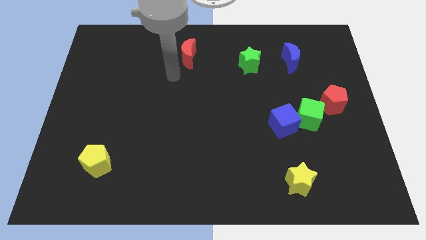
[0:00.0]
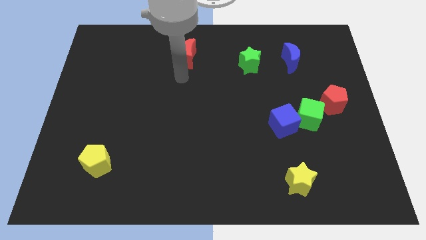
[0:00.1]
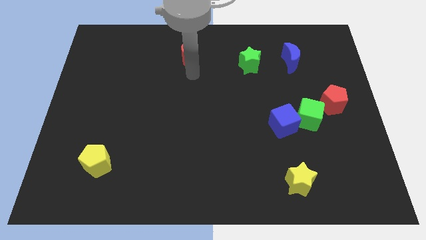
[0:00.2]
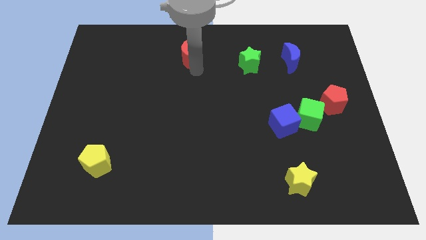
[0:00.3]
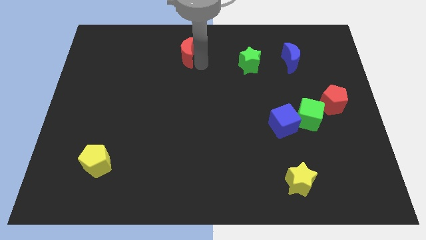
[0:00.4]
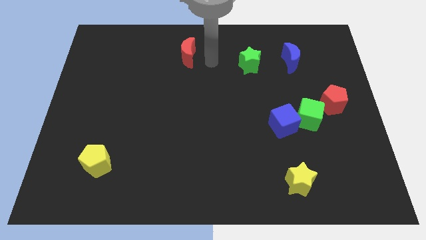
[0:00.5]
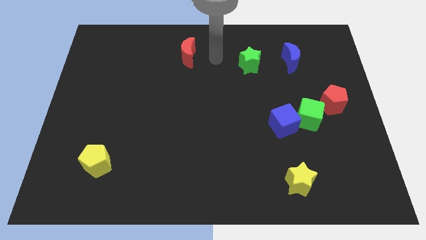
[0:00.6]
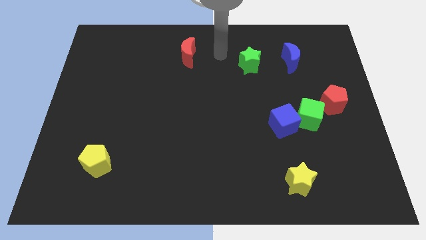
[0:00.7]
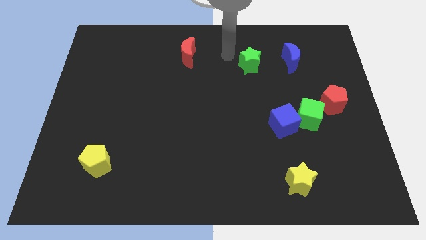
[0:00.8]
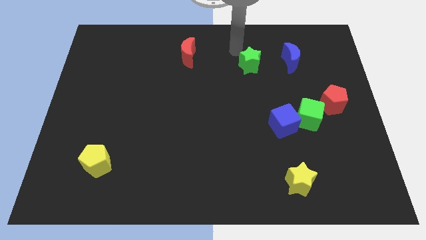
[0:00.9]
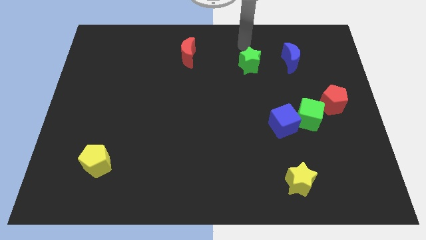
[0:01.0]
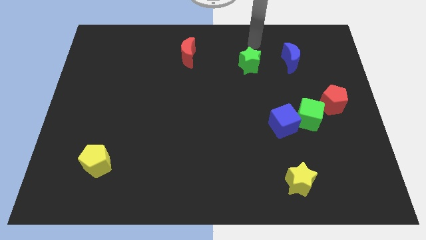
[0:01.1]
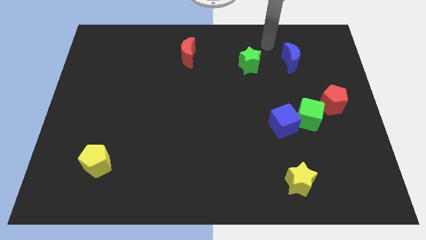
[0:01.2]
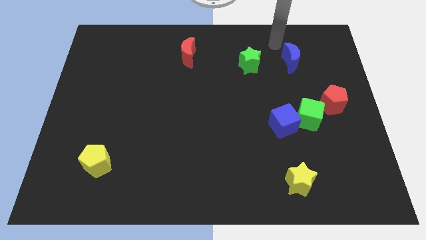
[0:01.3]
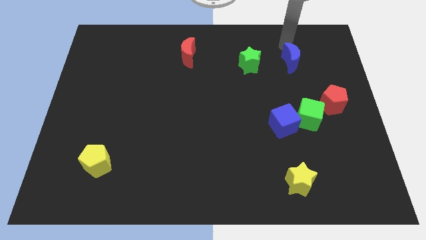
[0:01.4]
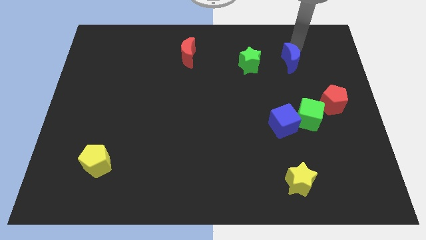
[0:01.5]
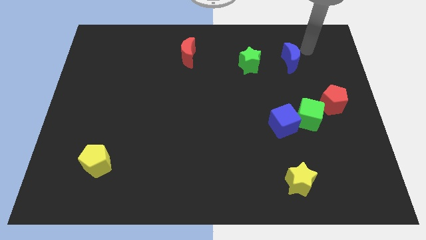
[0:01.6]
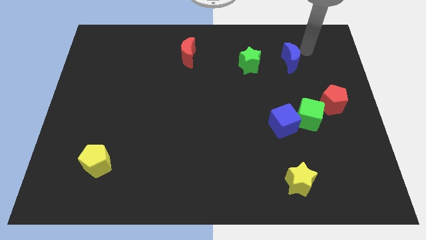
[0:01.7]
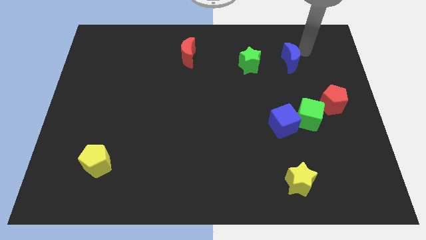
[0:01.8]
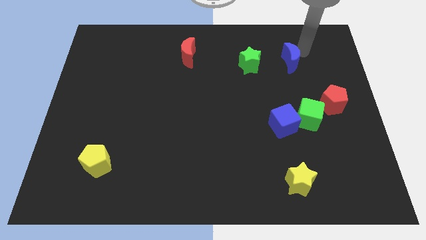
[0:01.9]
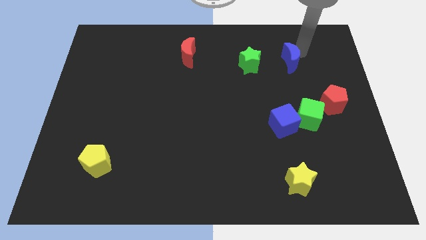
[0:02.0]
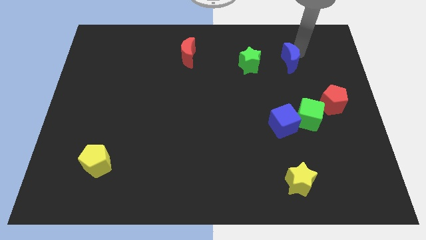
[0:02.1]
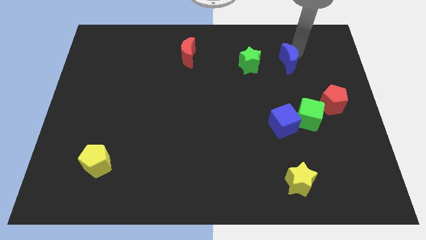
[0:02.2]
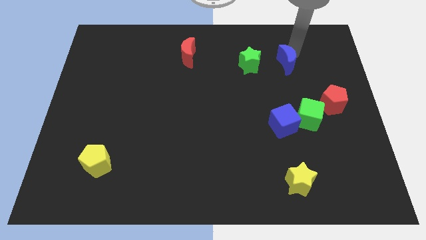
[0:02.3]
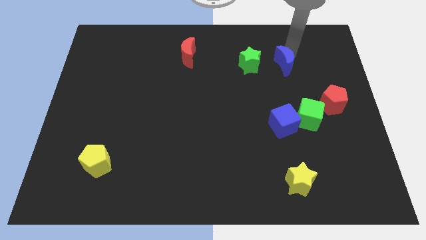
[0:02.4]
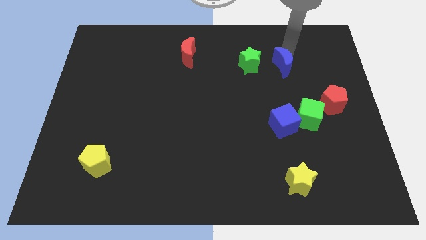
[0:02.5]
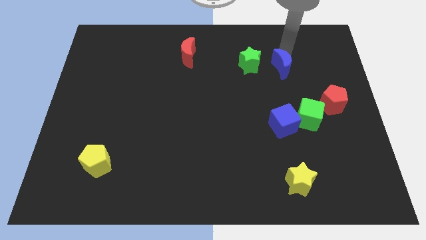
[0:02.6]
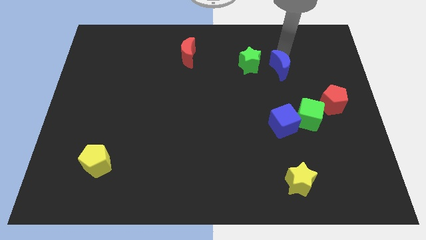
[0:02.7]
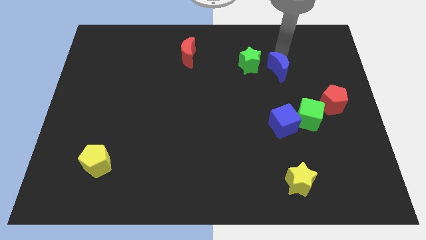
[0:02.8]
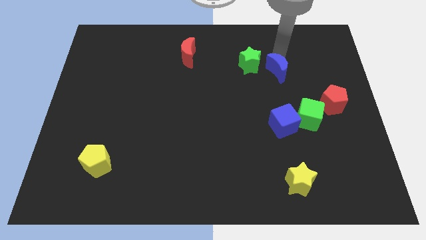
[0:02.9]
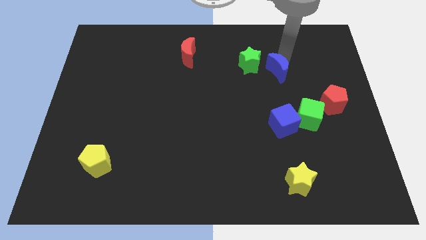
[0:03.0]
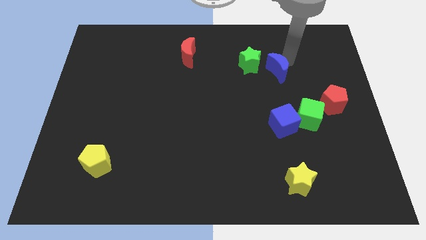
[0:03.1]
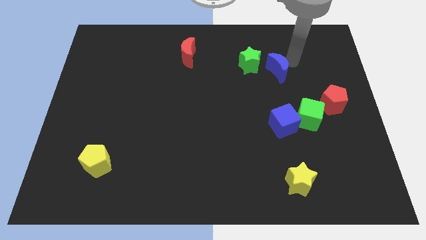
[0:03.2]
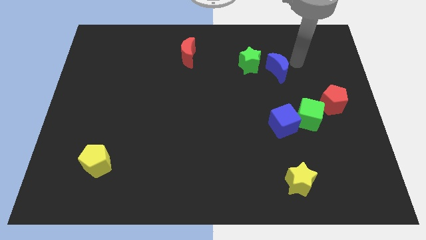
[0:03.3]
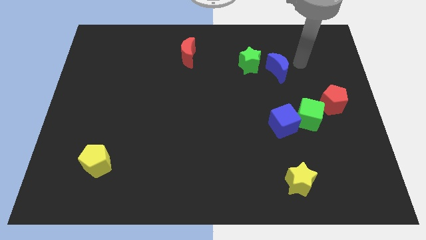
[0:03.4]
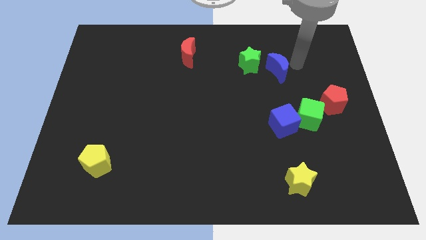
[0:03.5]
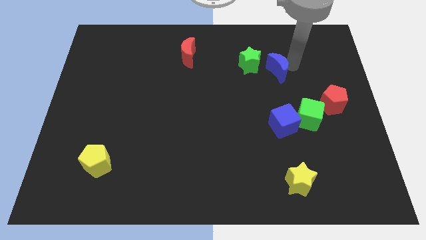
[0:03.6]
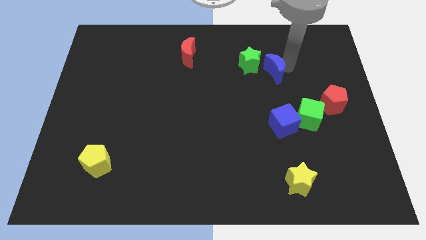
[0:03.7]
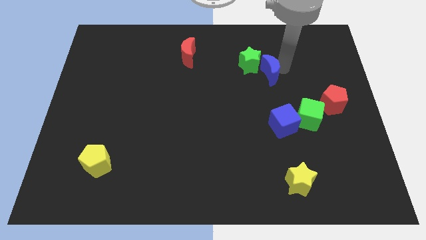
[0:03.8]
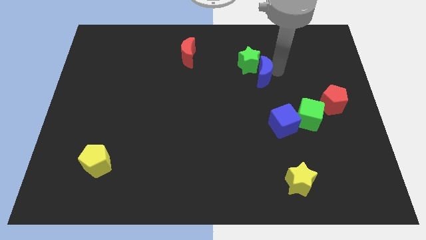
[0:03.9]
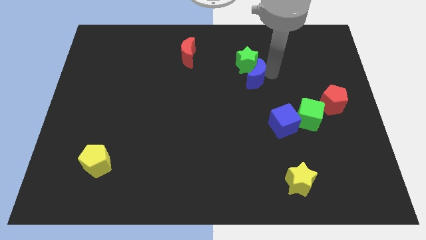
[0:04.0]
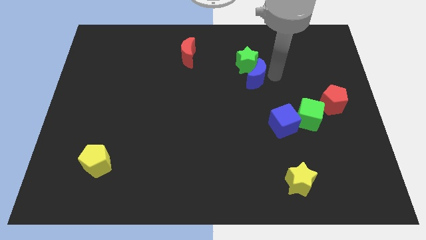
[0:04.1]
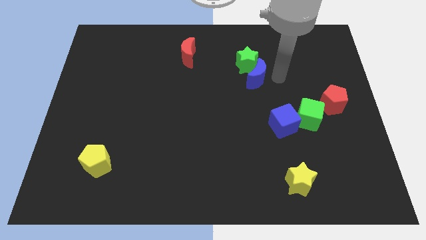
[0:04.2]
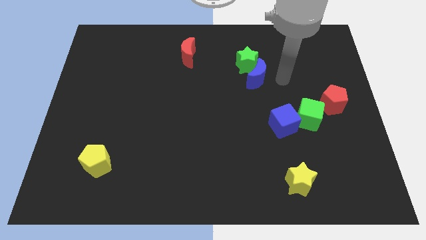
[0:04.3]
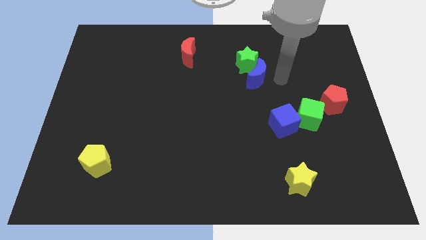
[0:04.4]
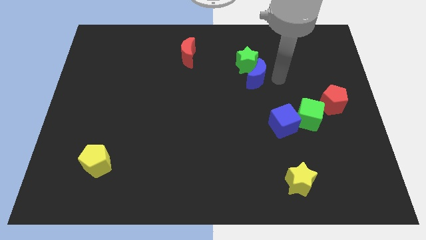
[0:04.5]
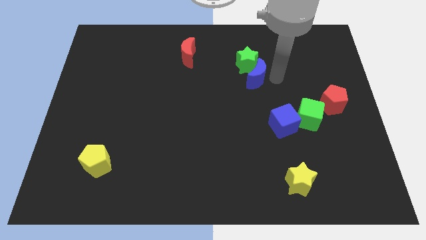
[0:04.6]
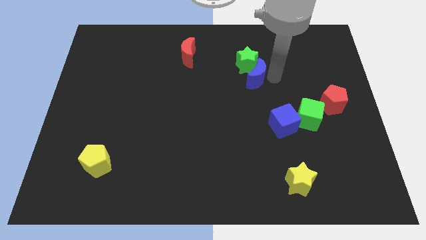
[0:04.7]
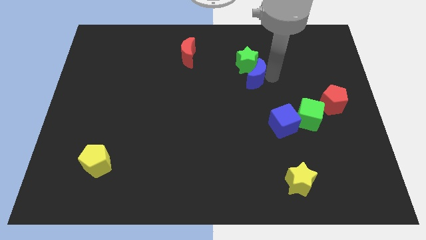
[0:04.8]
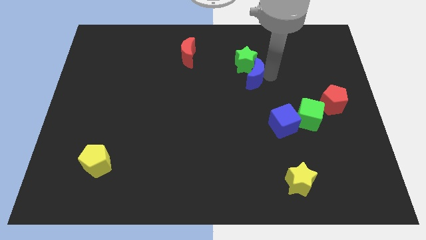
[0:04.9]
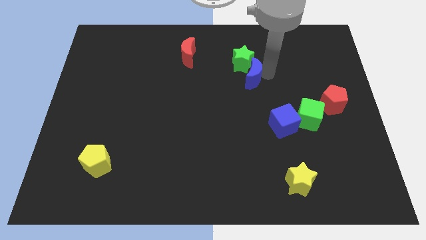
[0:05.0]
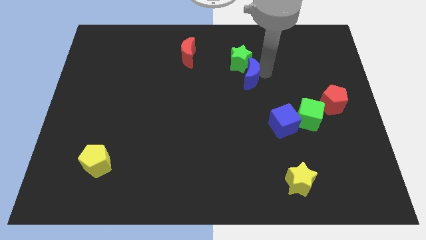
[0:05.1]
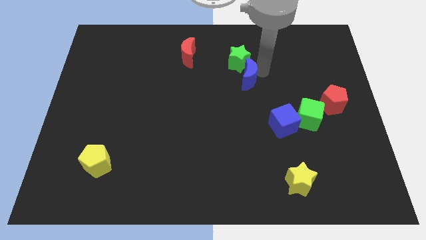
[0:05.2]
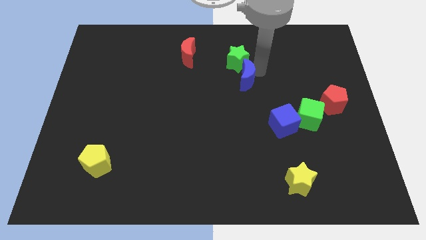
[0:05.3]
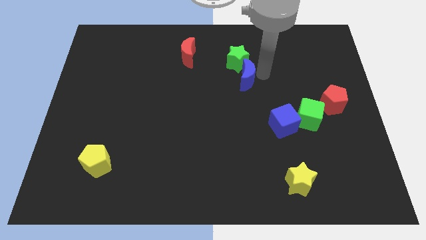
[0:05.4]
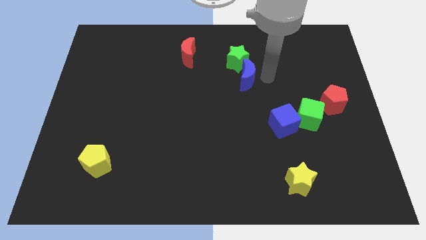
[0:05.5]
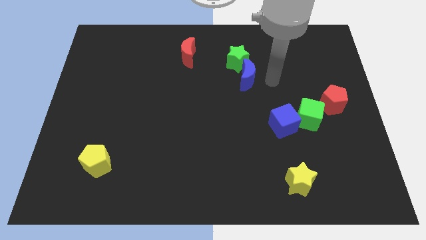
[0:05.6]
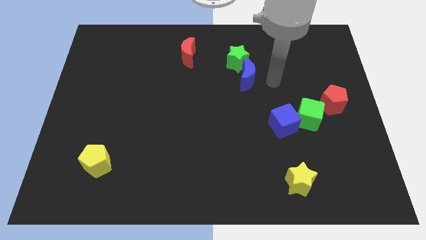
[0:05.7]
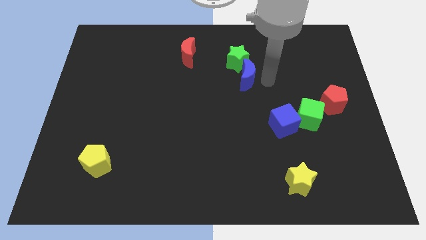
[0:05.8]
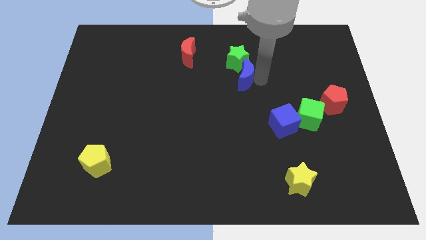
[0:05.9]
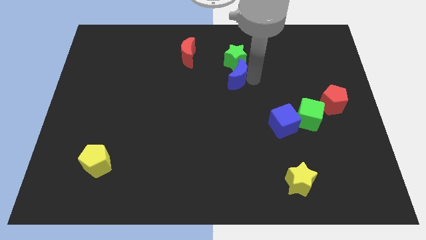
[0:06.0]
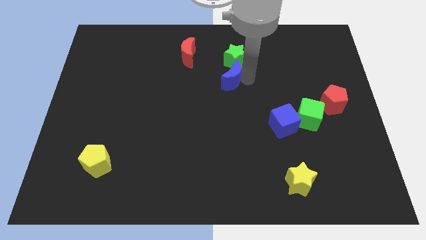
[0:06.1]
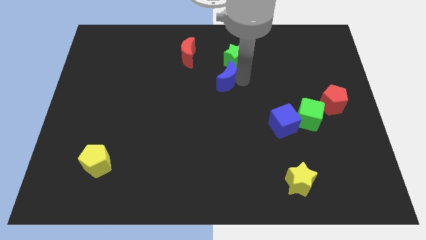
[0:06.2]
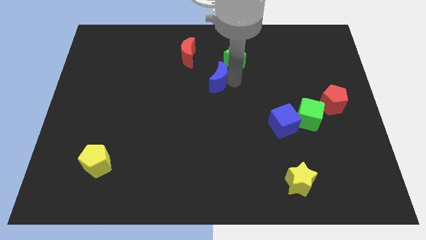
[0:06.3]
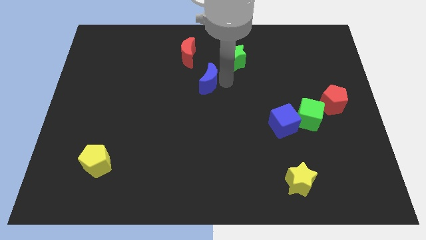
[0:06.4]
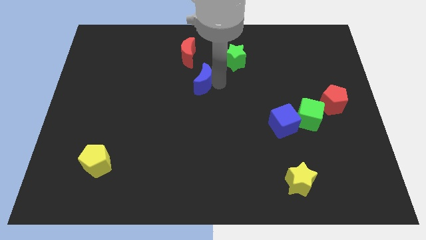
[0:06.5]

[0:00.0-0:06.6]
slide the blue moon left

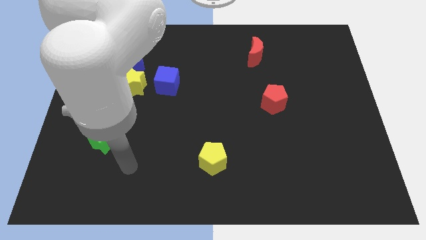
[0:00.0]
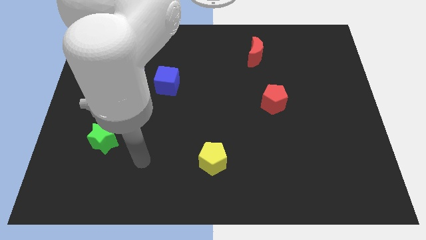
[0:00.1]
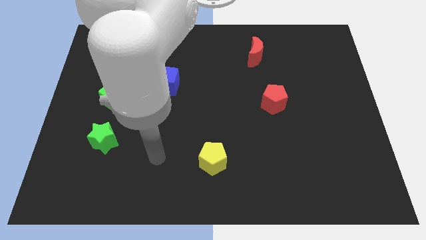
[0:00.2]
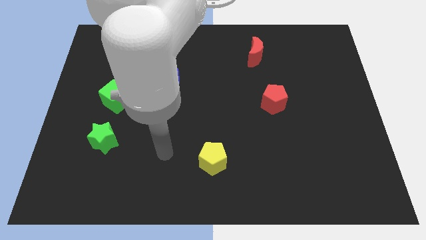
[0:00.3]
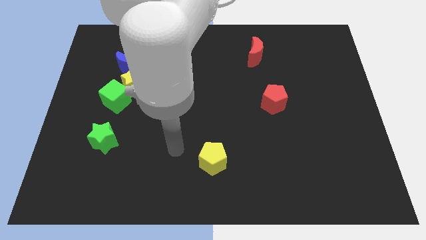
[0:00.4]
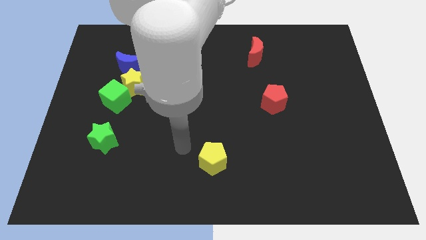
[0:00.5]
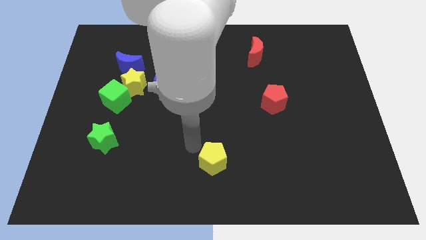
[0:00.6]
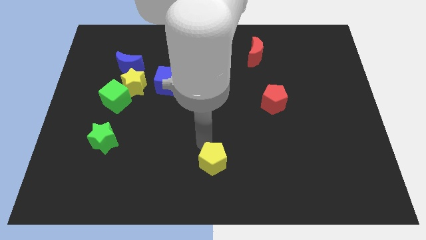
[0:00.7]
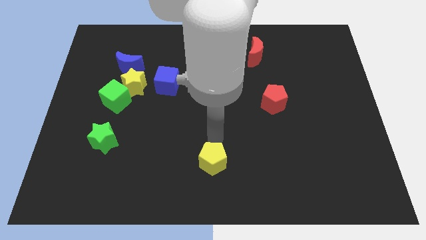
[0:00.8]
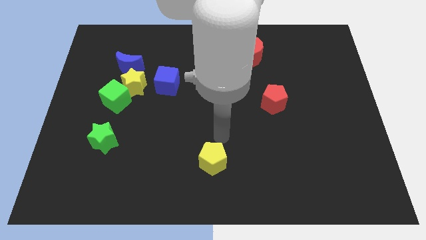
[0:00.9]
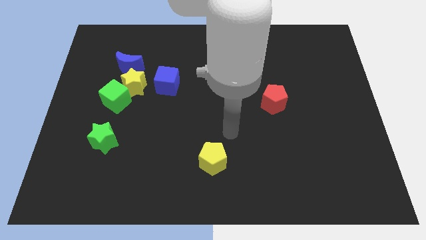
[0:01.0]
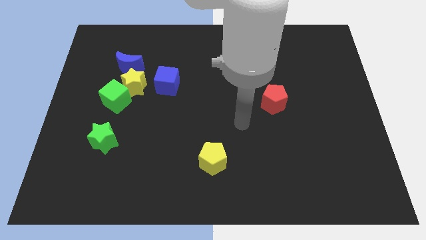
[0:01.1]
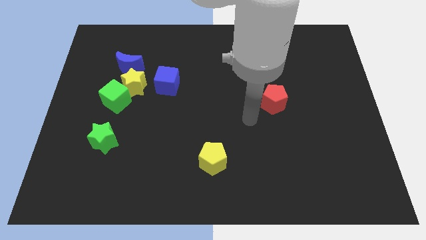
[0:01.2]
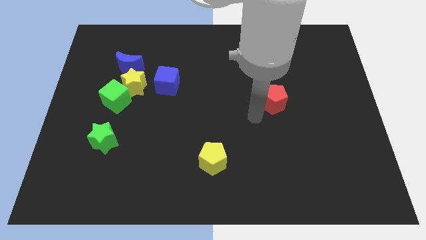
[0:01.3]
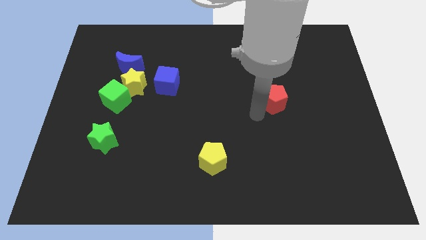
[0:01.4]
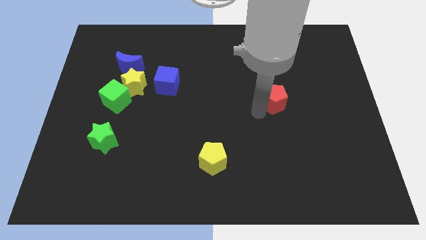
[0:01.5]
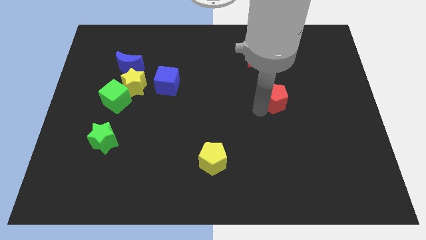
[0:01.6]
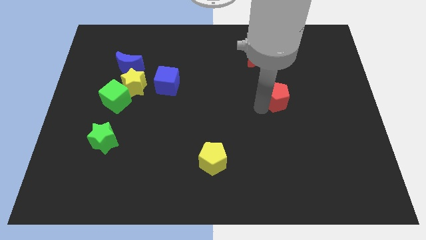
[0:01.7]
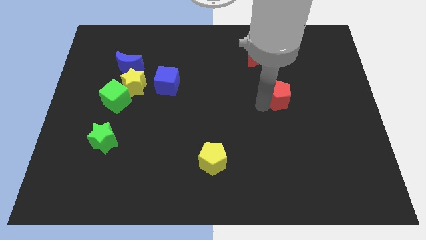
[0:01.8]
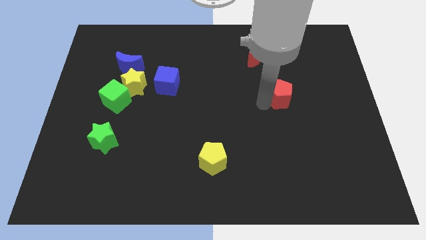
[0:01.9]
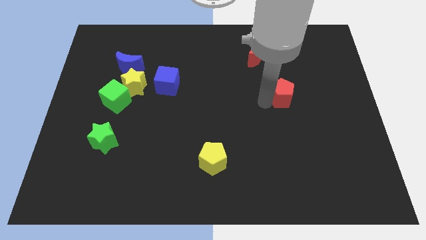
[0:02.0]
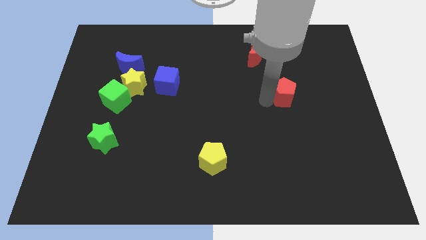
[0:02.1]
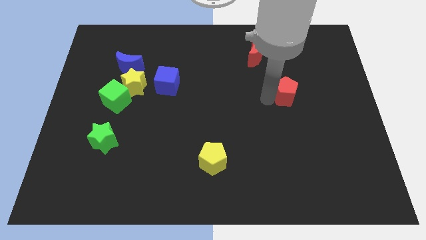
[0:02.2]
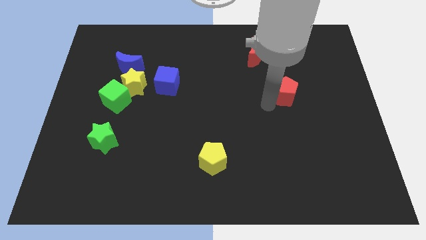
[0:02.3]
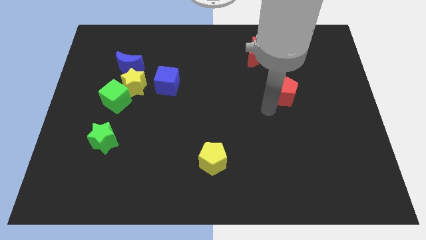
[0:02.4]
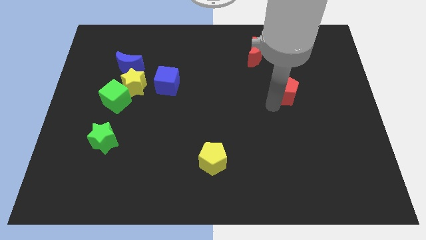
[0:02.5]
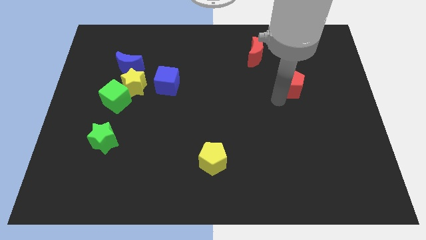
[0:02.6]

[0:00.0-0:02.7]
slightly slide the red pentagon up and then right
